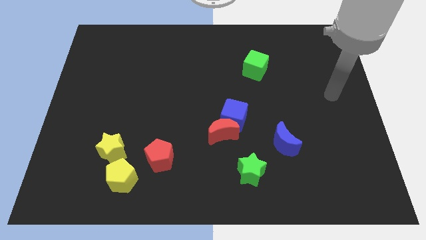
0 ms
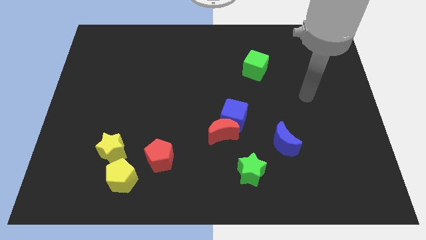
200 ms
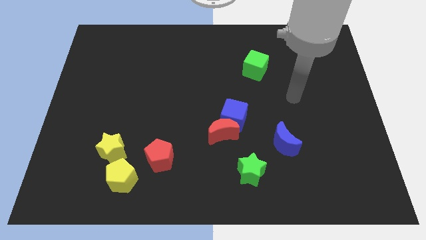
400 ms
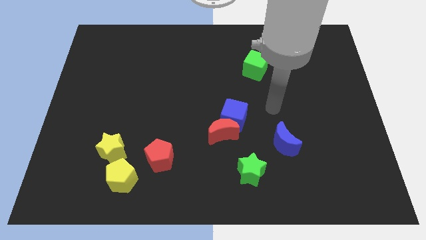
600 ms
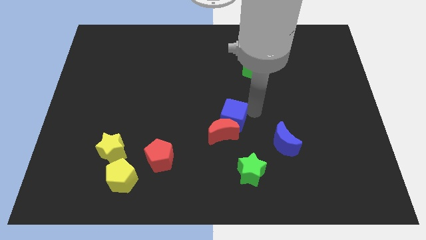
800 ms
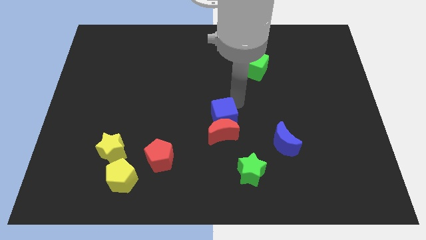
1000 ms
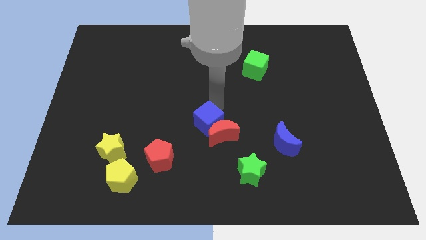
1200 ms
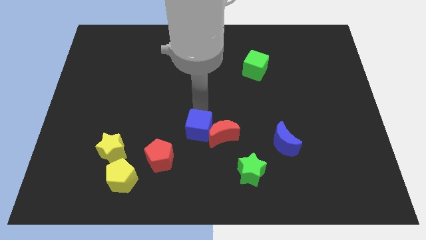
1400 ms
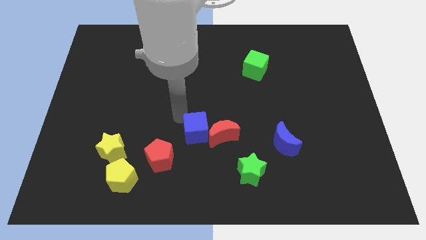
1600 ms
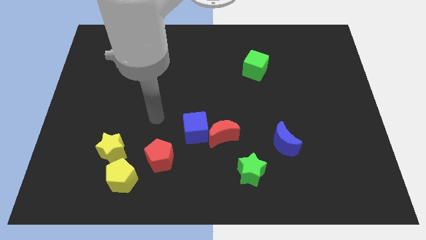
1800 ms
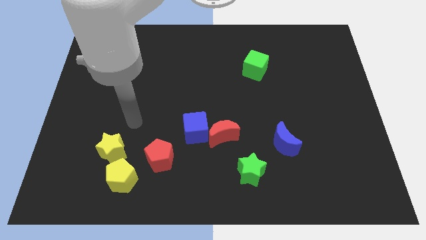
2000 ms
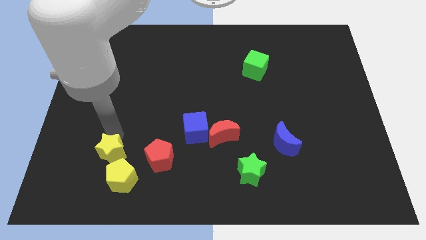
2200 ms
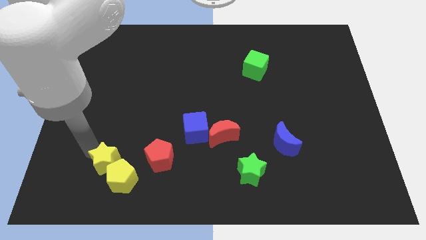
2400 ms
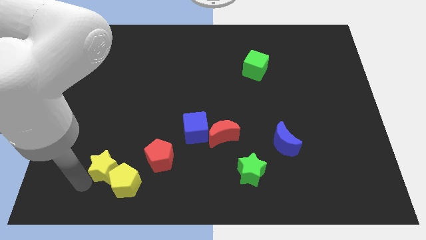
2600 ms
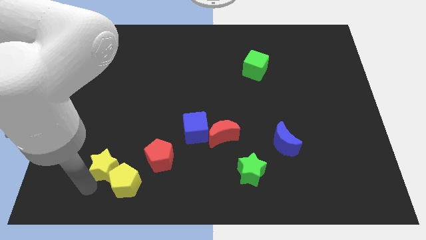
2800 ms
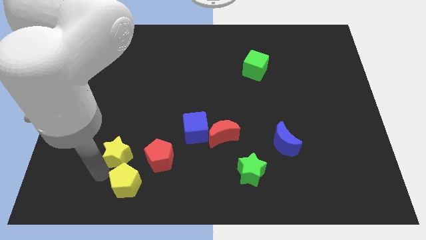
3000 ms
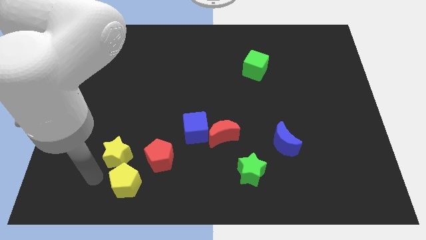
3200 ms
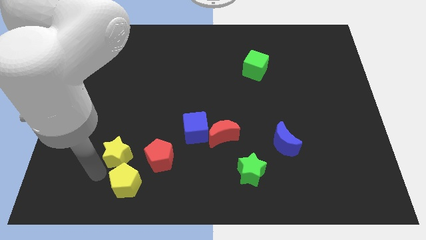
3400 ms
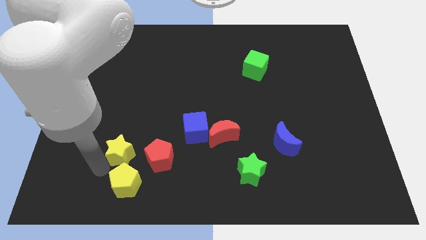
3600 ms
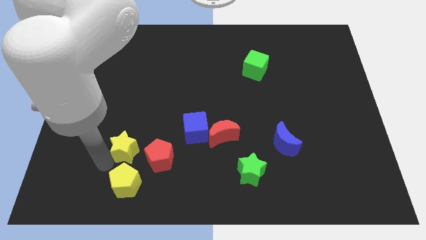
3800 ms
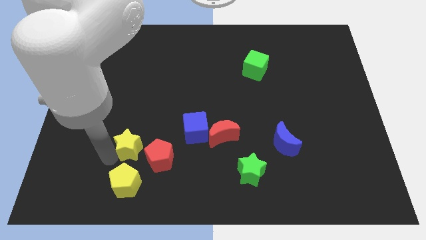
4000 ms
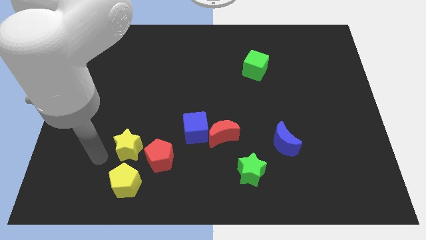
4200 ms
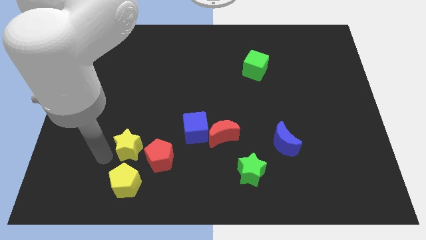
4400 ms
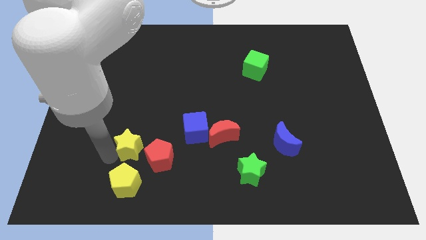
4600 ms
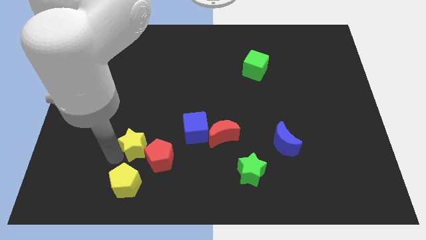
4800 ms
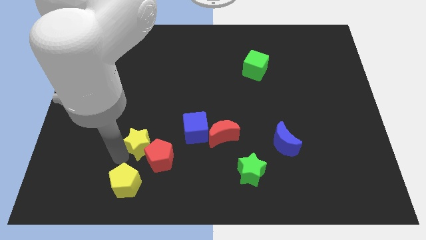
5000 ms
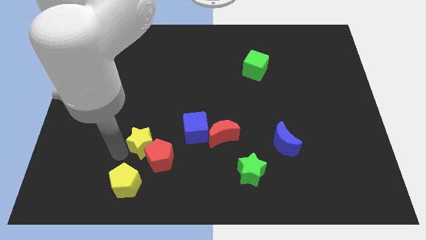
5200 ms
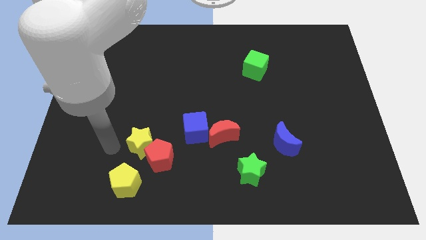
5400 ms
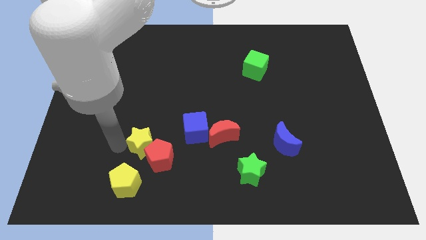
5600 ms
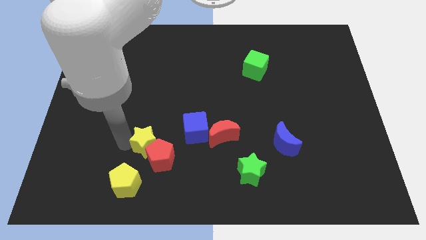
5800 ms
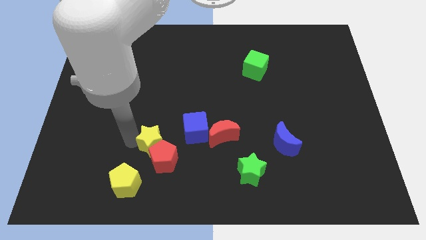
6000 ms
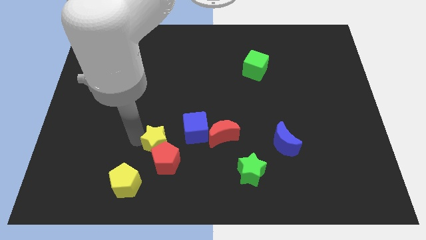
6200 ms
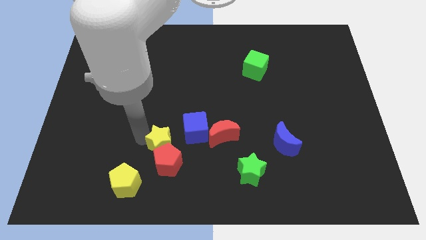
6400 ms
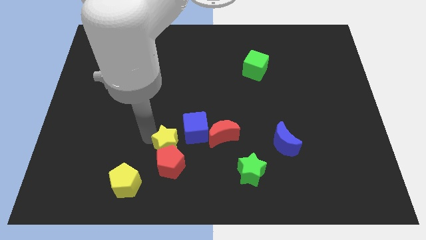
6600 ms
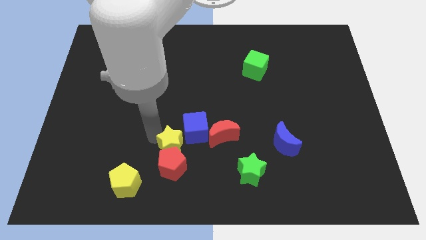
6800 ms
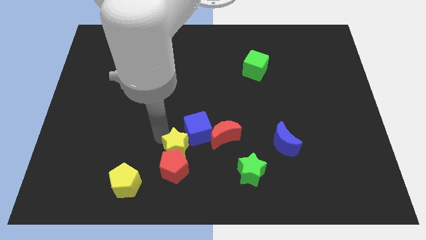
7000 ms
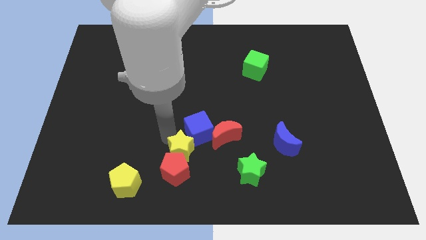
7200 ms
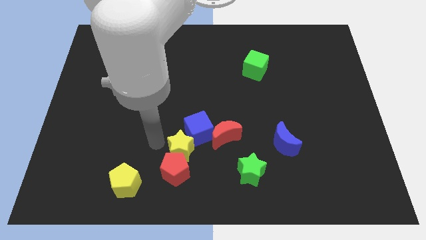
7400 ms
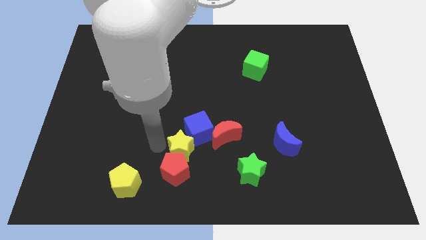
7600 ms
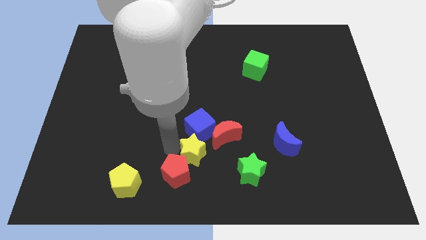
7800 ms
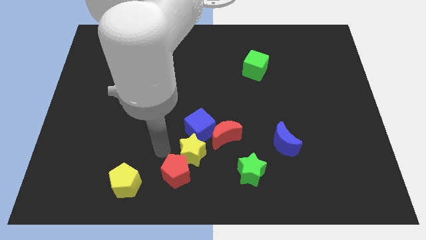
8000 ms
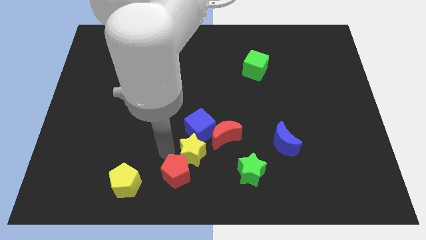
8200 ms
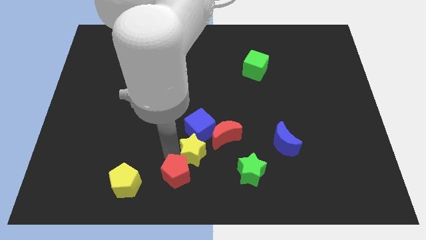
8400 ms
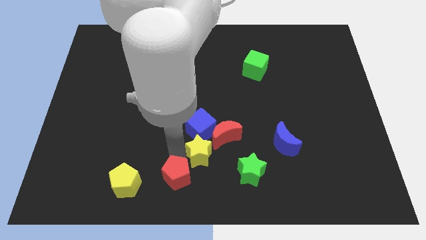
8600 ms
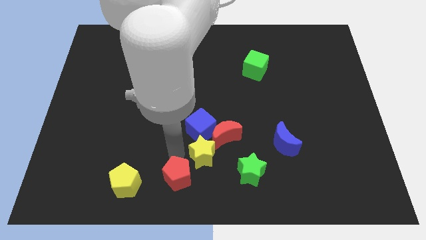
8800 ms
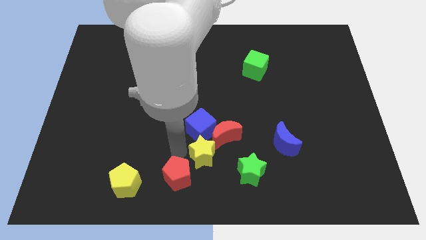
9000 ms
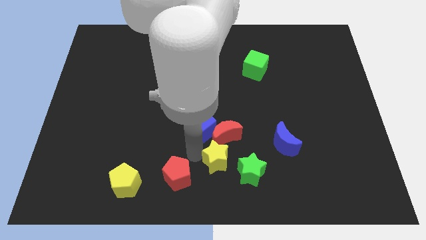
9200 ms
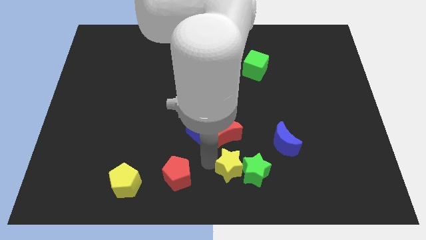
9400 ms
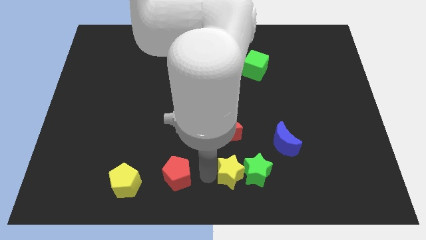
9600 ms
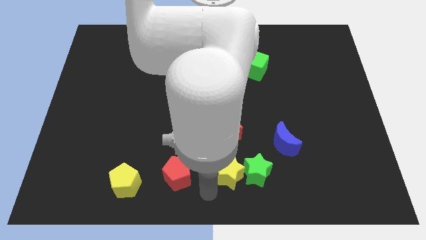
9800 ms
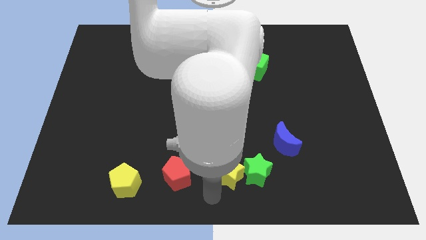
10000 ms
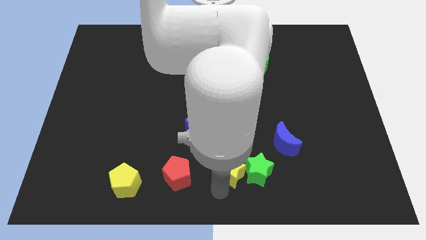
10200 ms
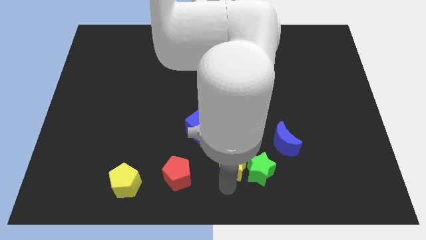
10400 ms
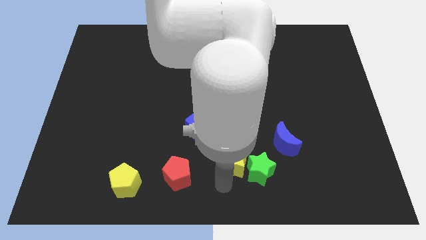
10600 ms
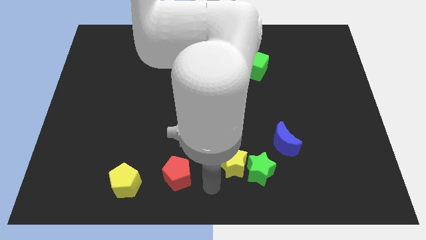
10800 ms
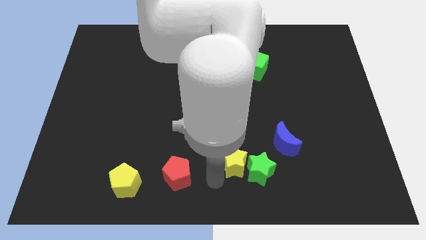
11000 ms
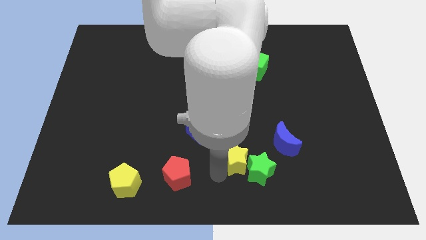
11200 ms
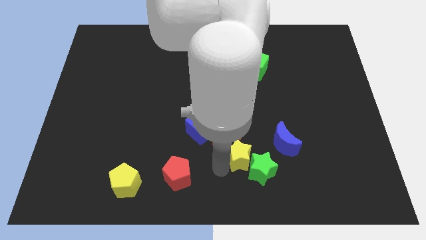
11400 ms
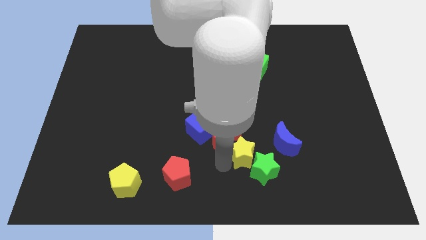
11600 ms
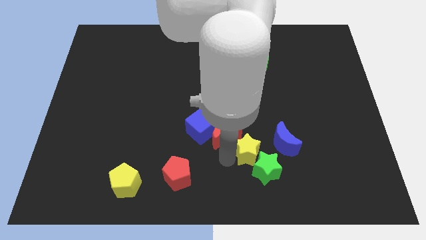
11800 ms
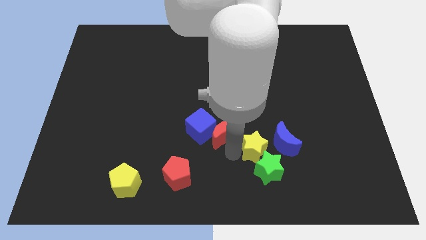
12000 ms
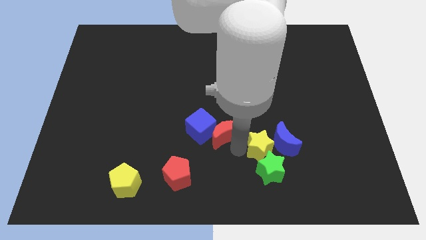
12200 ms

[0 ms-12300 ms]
push the yellow star towards the blue moon
